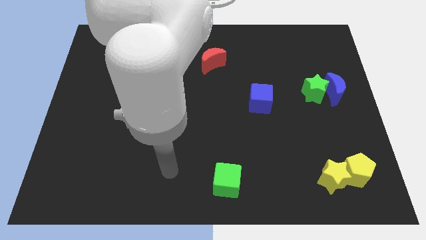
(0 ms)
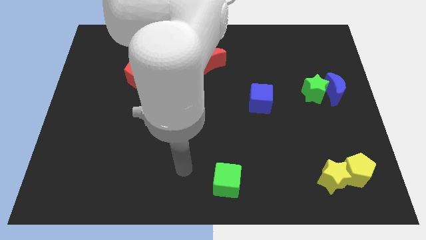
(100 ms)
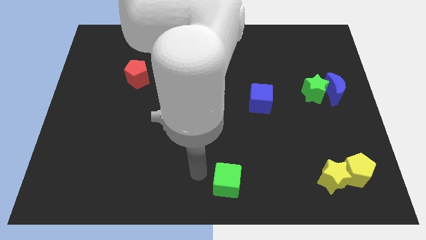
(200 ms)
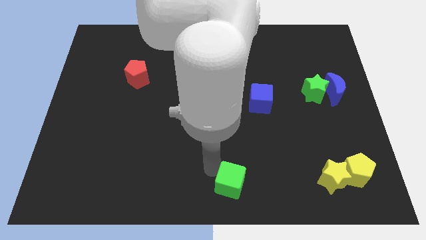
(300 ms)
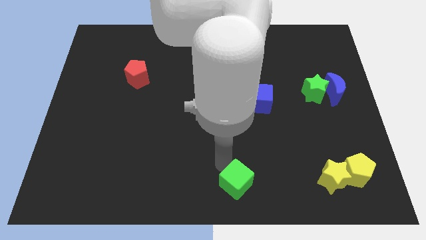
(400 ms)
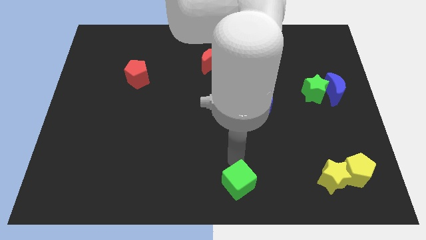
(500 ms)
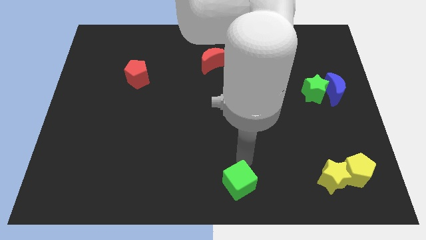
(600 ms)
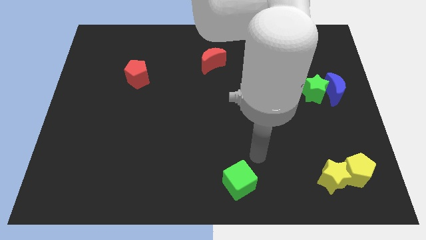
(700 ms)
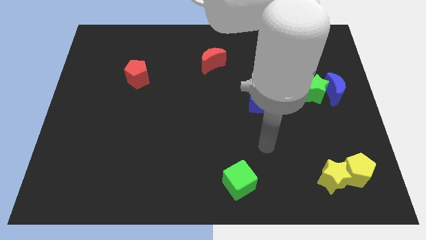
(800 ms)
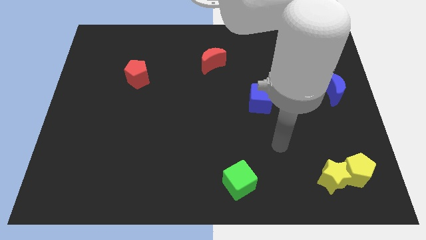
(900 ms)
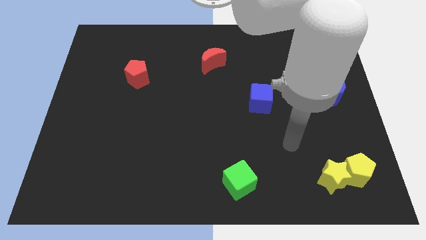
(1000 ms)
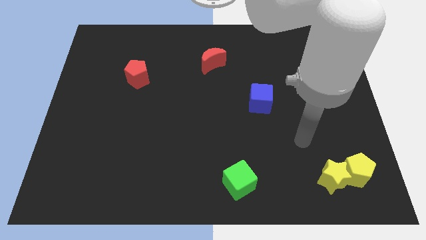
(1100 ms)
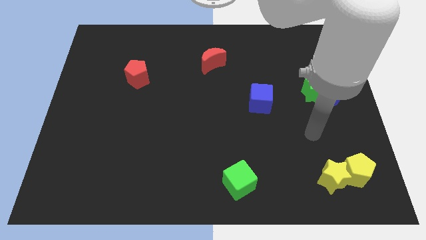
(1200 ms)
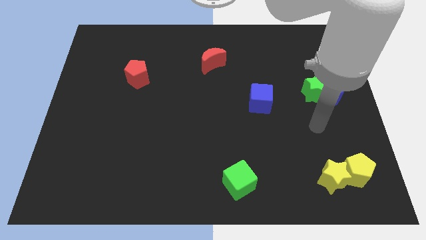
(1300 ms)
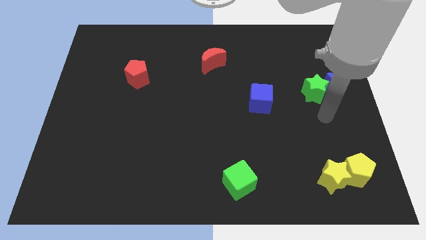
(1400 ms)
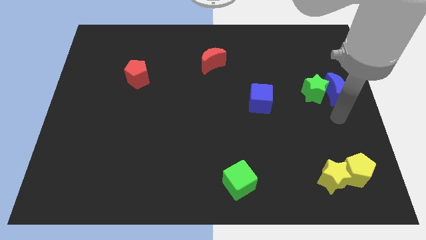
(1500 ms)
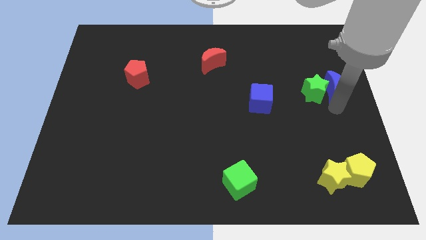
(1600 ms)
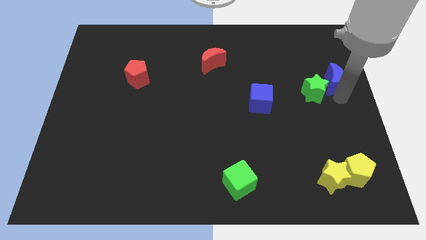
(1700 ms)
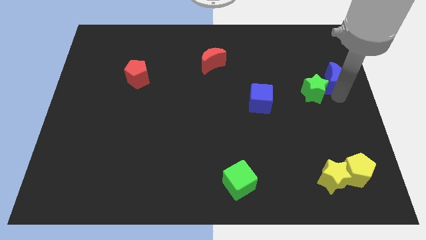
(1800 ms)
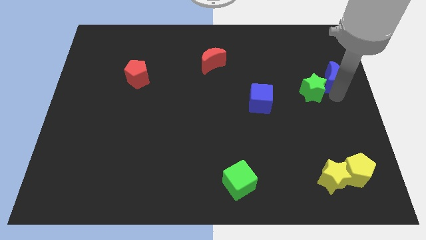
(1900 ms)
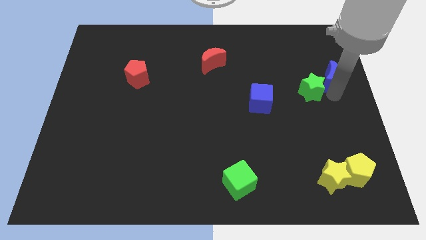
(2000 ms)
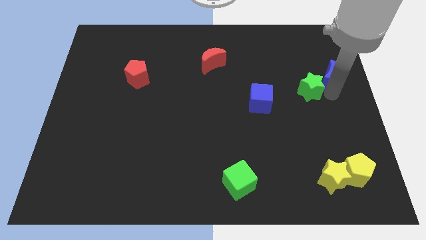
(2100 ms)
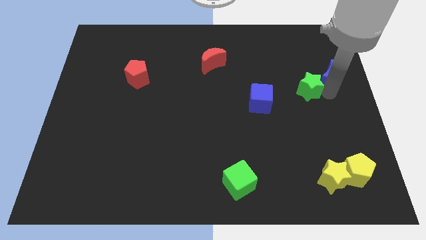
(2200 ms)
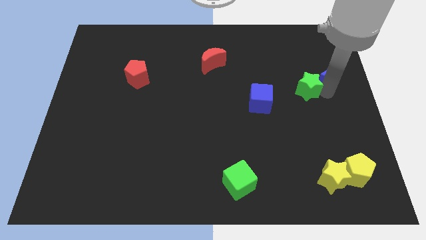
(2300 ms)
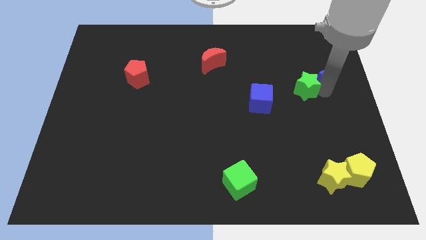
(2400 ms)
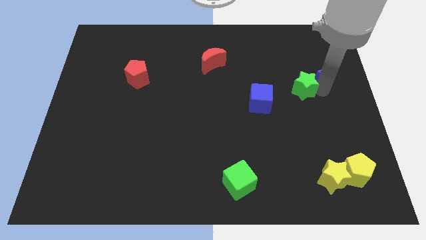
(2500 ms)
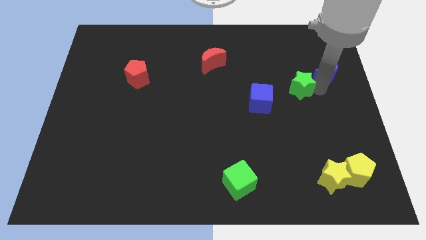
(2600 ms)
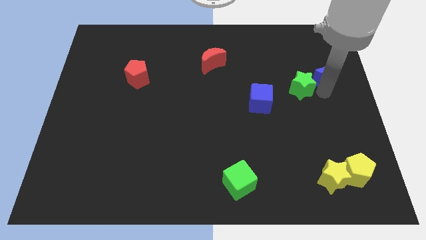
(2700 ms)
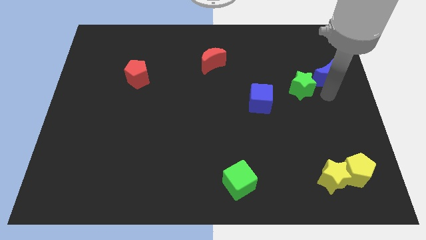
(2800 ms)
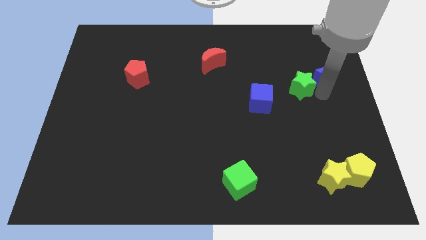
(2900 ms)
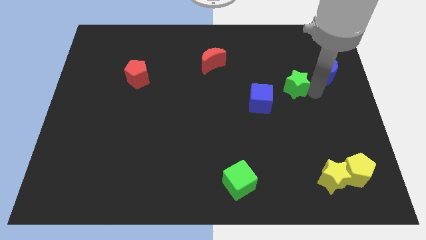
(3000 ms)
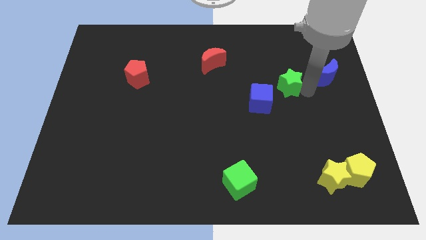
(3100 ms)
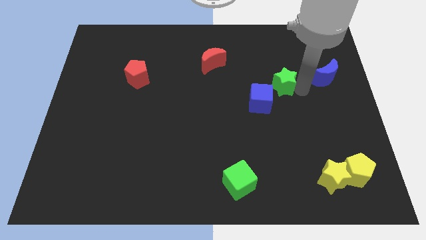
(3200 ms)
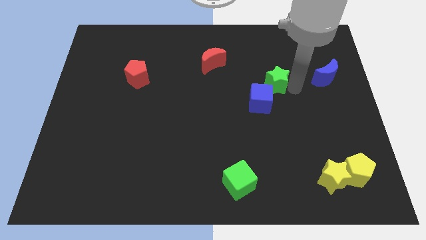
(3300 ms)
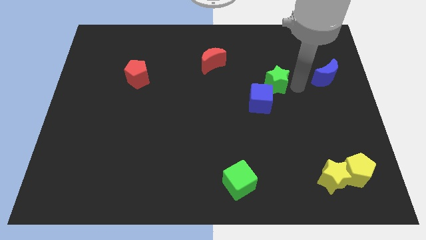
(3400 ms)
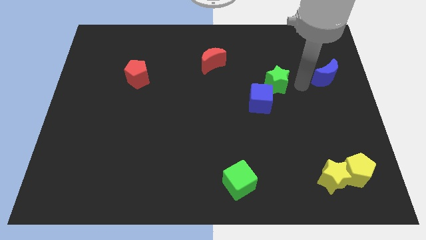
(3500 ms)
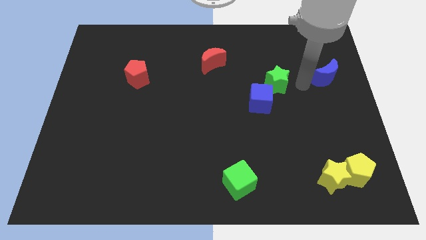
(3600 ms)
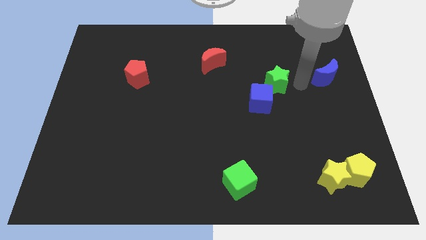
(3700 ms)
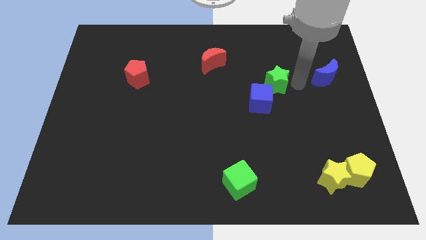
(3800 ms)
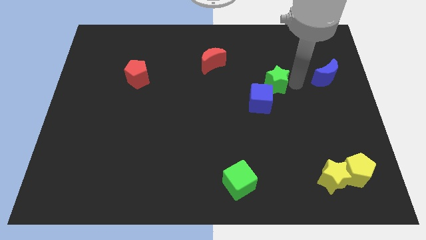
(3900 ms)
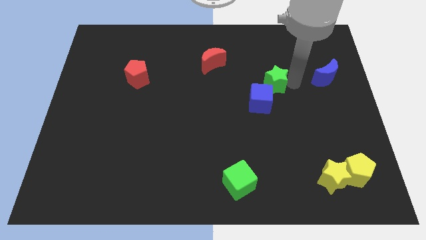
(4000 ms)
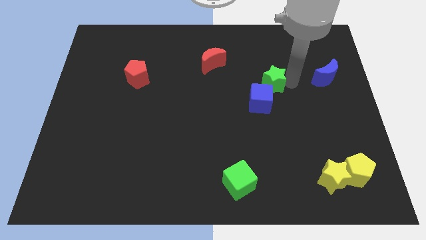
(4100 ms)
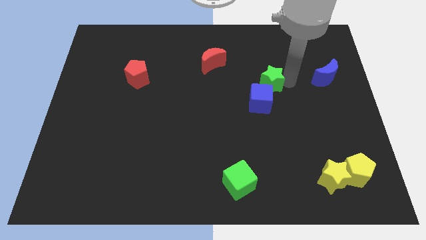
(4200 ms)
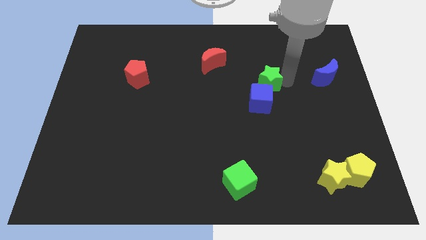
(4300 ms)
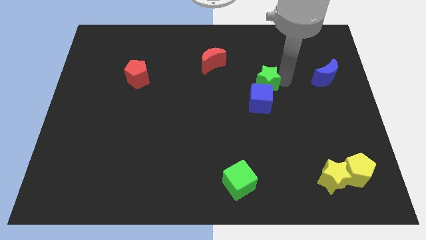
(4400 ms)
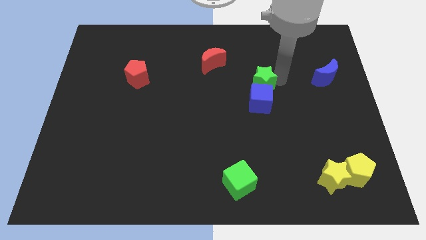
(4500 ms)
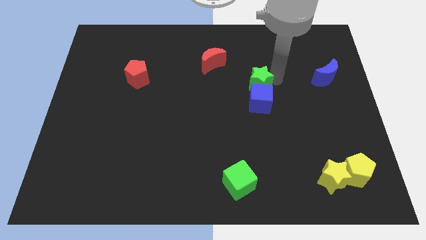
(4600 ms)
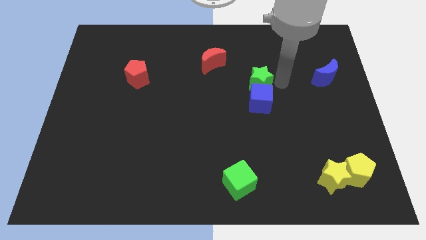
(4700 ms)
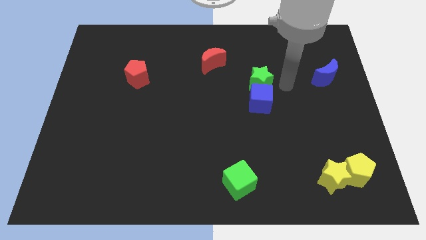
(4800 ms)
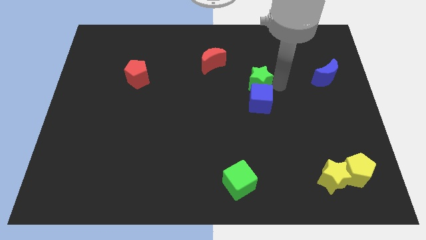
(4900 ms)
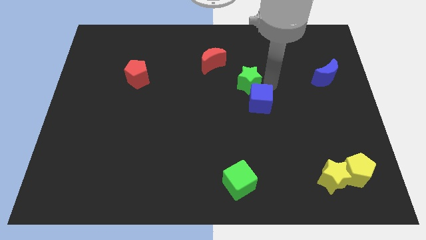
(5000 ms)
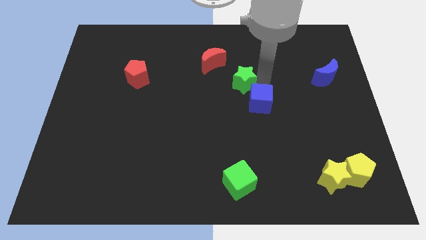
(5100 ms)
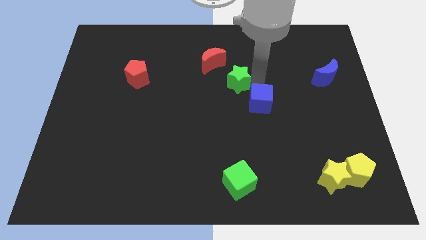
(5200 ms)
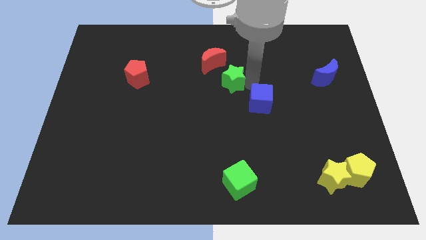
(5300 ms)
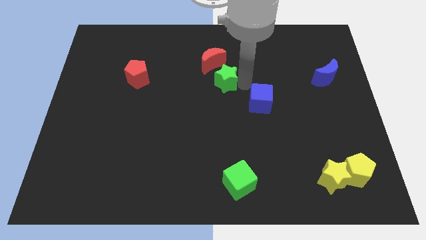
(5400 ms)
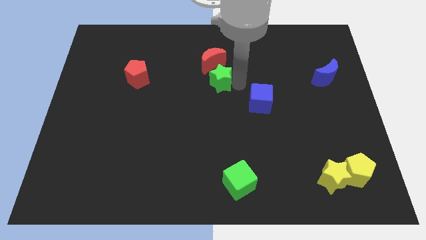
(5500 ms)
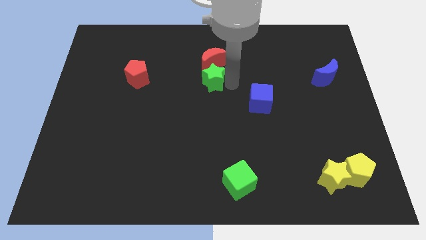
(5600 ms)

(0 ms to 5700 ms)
push the green star to the bottom left side of the red moon

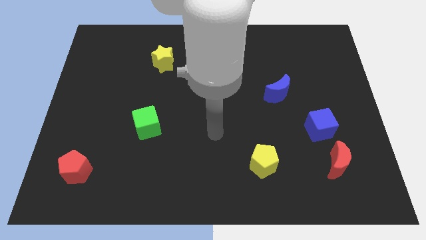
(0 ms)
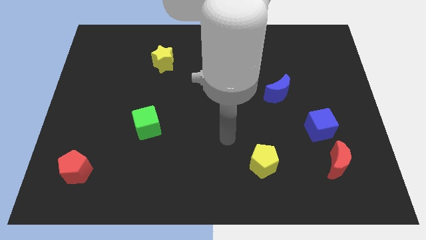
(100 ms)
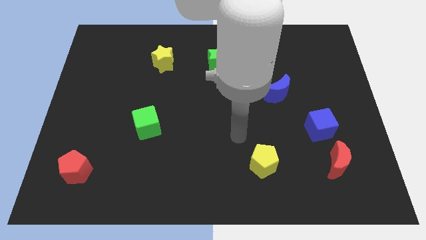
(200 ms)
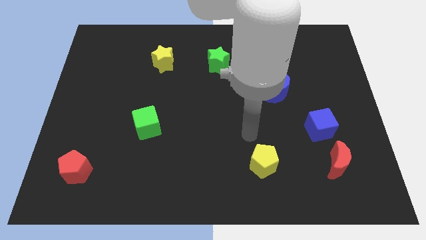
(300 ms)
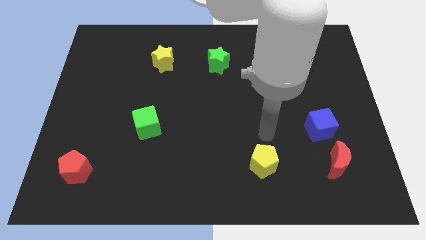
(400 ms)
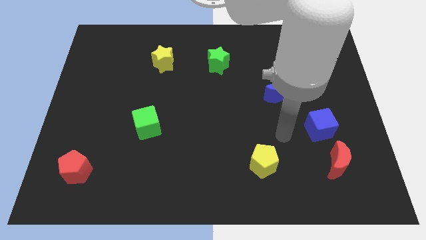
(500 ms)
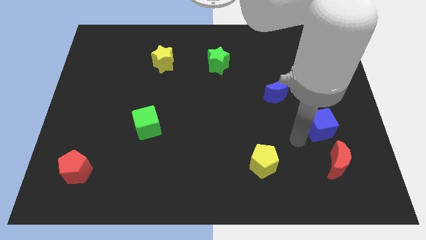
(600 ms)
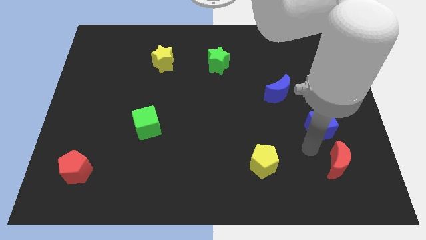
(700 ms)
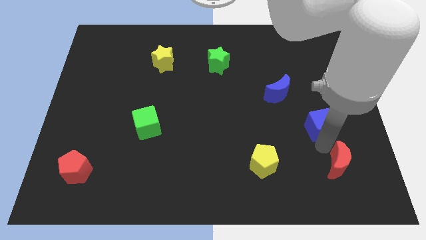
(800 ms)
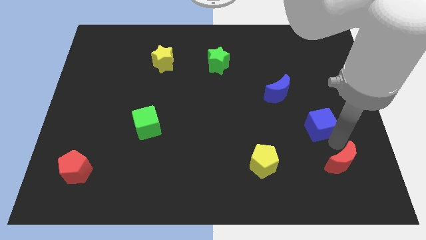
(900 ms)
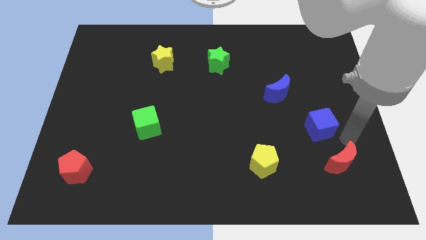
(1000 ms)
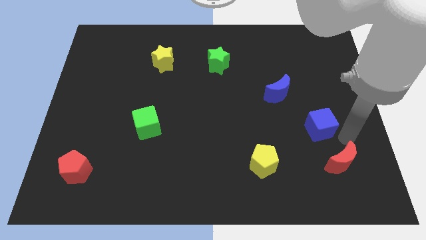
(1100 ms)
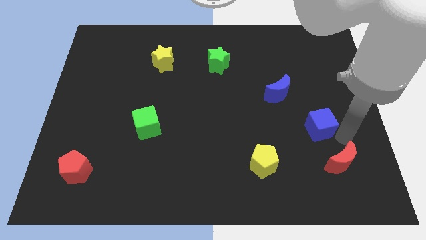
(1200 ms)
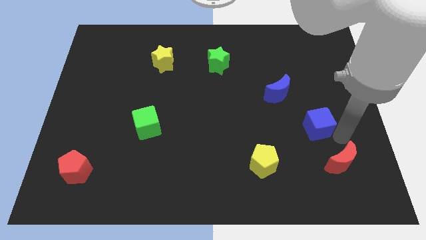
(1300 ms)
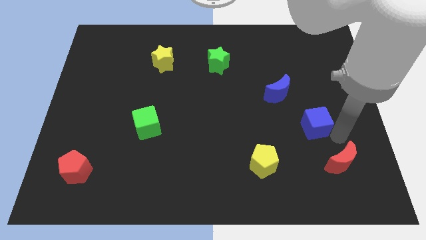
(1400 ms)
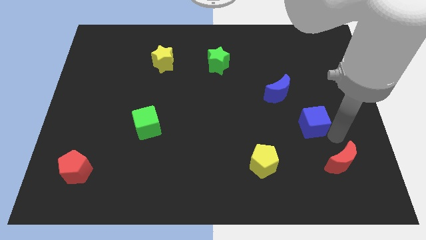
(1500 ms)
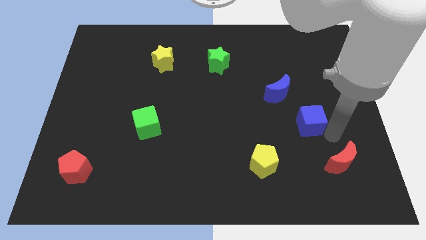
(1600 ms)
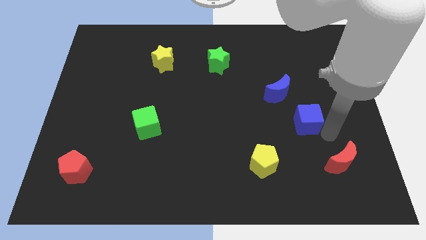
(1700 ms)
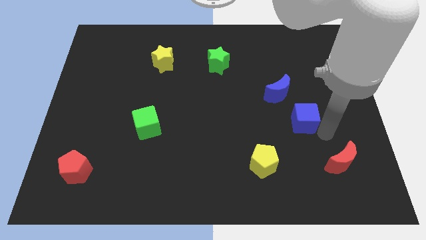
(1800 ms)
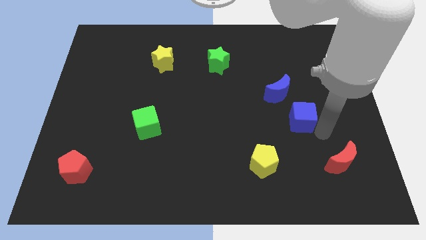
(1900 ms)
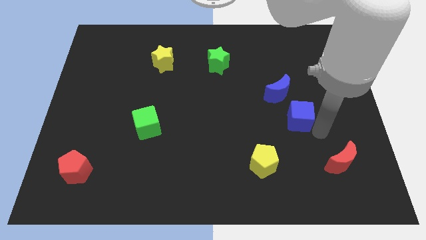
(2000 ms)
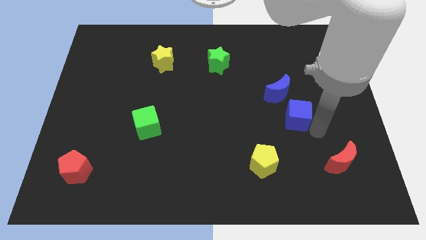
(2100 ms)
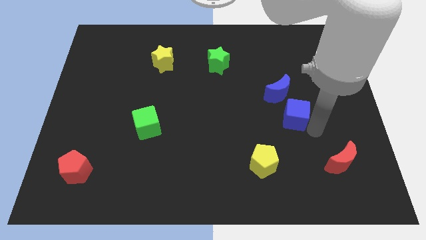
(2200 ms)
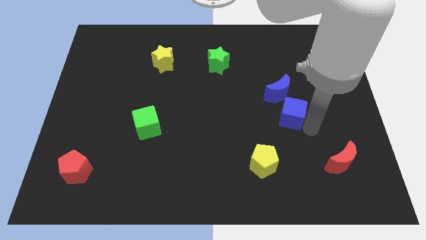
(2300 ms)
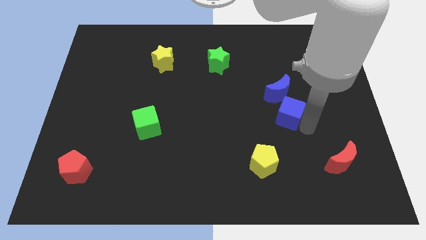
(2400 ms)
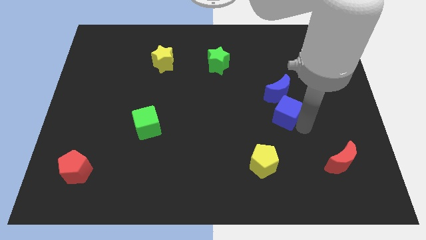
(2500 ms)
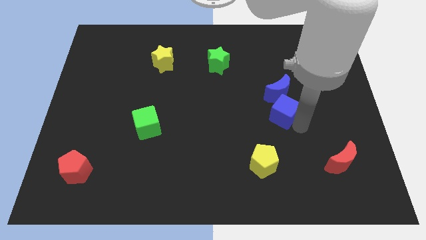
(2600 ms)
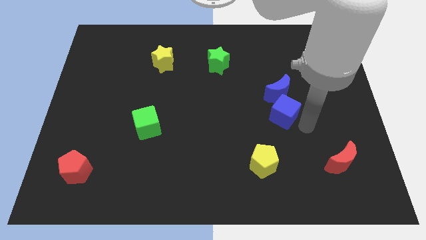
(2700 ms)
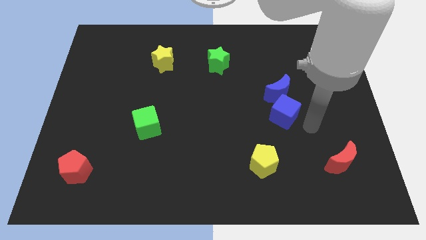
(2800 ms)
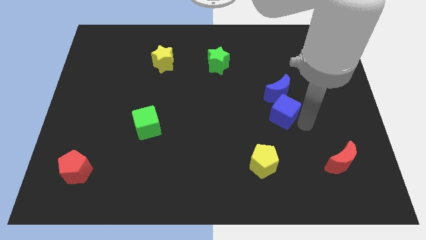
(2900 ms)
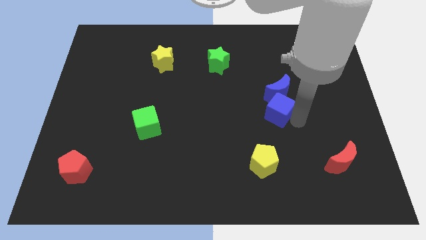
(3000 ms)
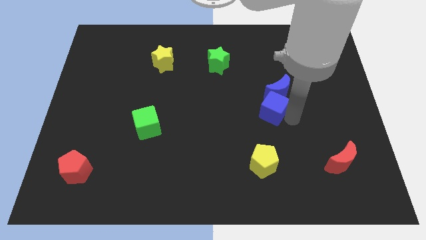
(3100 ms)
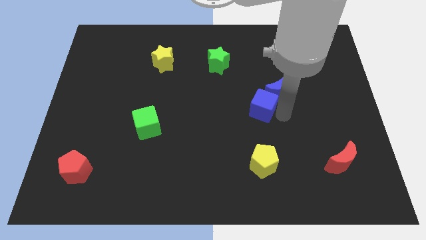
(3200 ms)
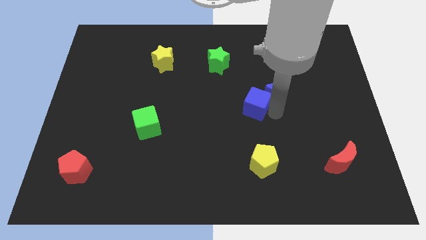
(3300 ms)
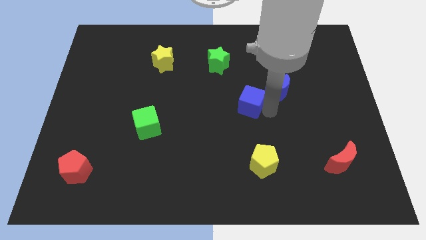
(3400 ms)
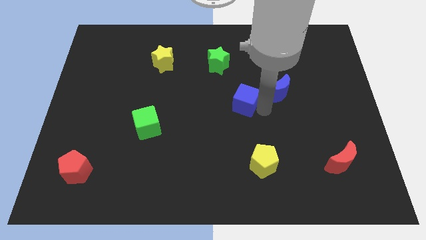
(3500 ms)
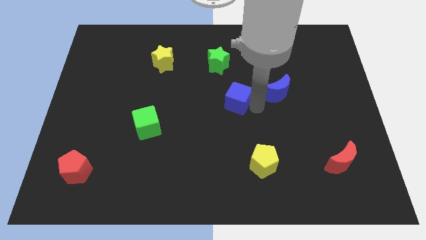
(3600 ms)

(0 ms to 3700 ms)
put the blue cube below the green star
